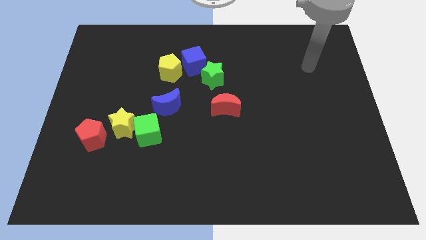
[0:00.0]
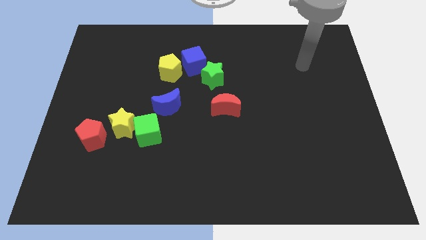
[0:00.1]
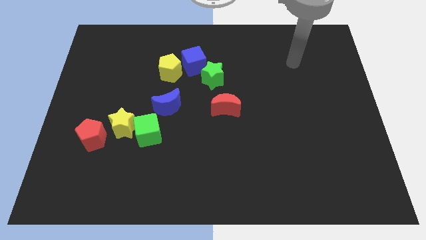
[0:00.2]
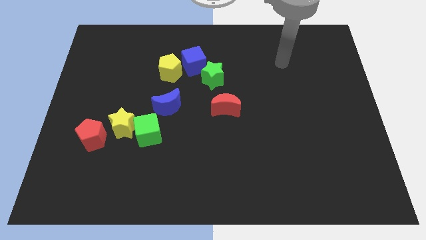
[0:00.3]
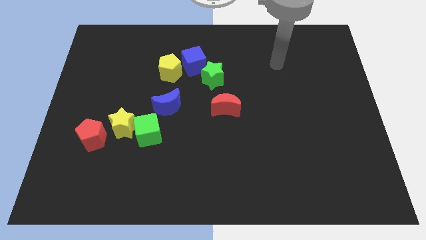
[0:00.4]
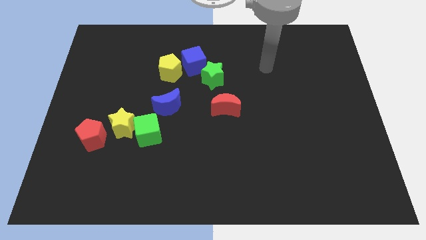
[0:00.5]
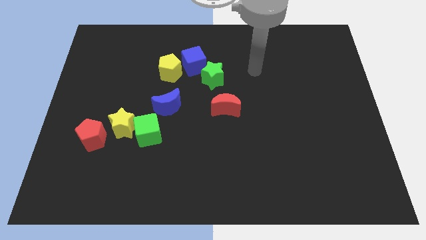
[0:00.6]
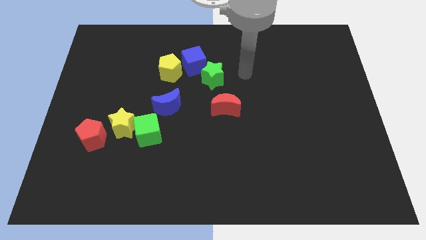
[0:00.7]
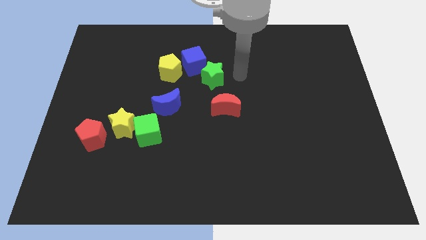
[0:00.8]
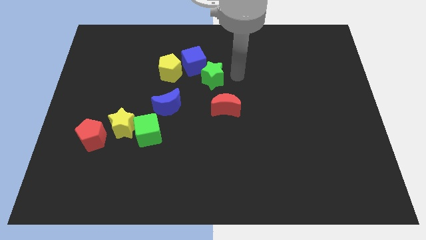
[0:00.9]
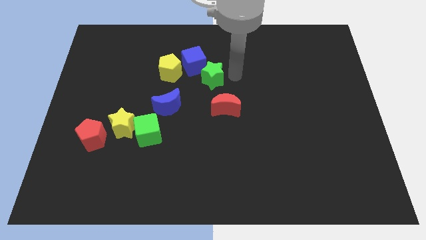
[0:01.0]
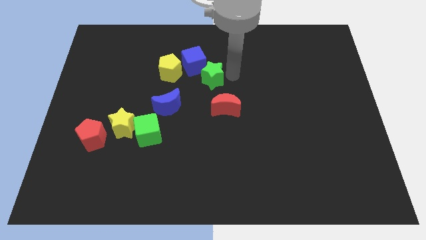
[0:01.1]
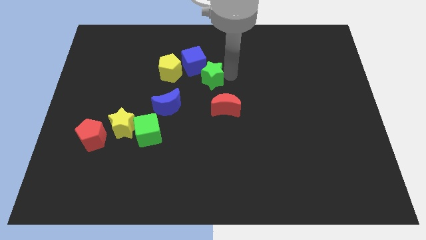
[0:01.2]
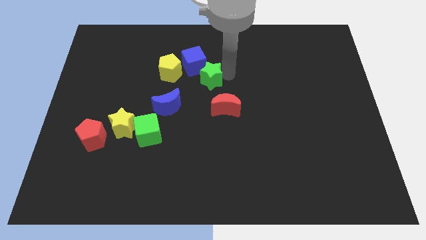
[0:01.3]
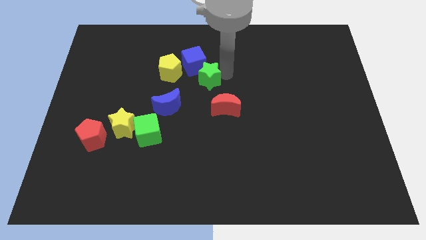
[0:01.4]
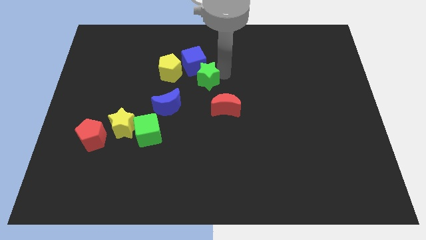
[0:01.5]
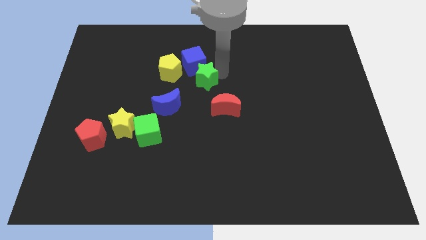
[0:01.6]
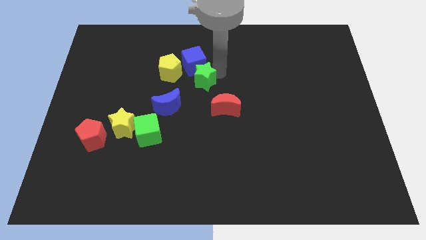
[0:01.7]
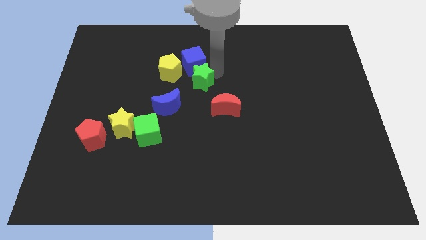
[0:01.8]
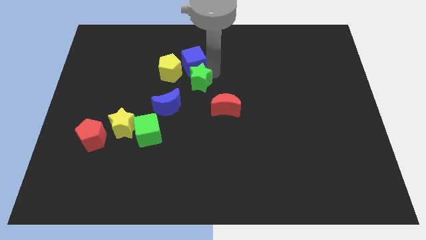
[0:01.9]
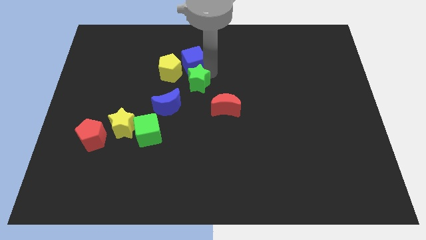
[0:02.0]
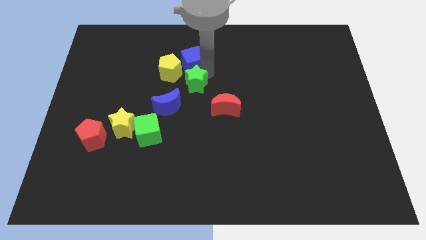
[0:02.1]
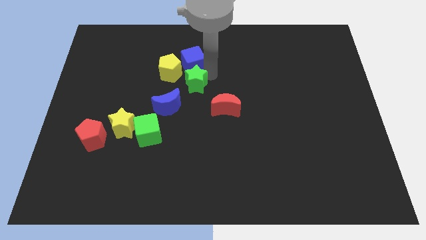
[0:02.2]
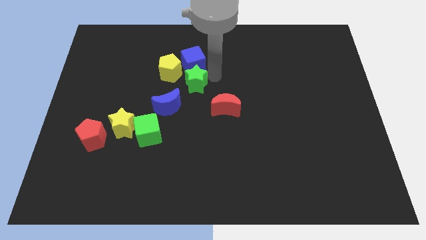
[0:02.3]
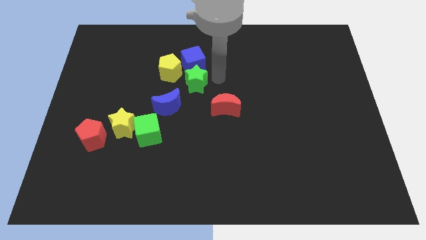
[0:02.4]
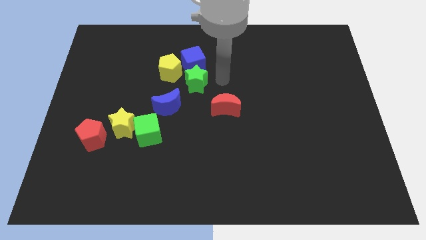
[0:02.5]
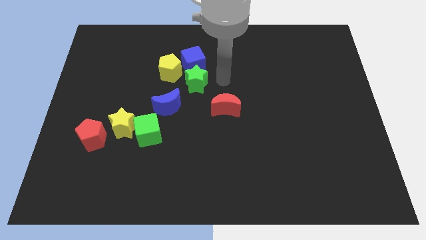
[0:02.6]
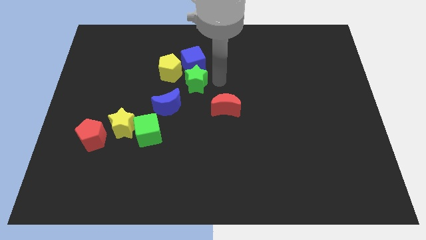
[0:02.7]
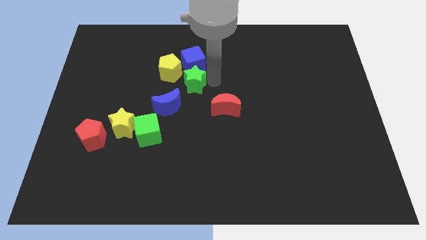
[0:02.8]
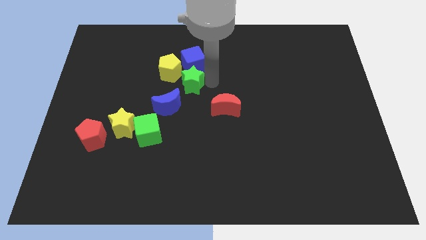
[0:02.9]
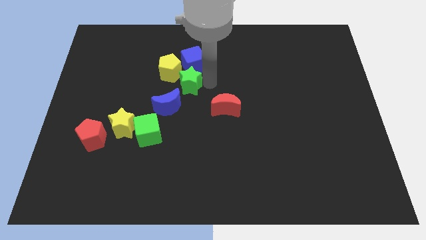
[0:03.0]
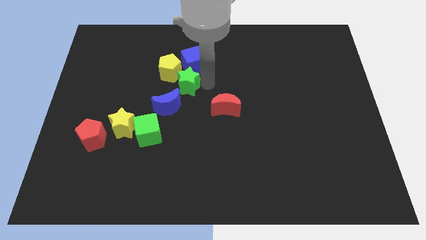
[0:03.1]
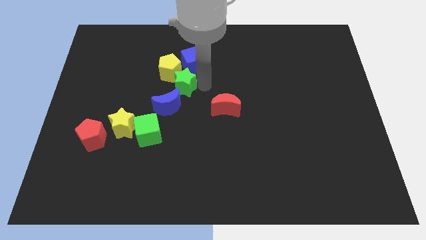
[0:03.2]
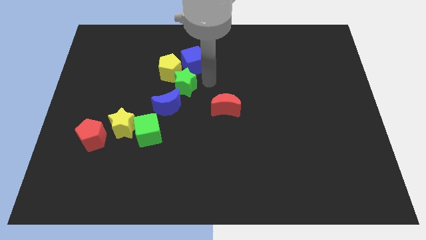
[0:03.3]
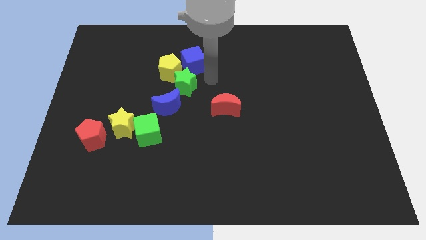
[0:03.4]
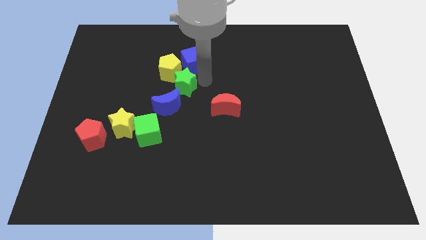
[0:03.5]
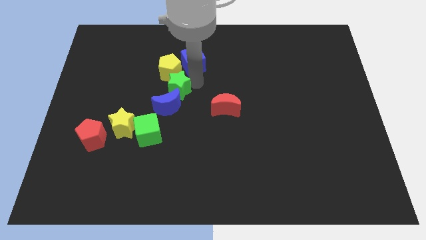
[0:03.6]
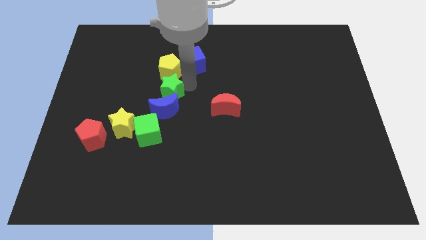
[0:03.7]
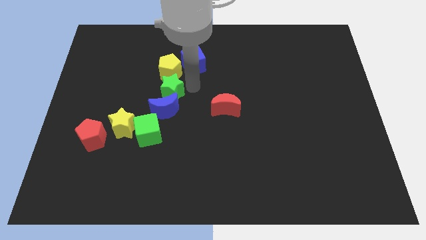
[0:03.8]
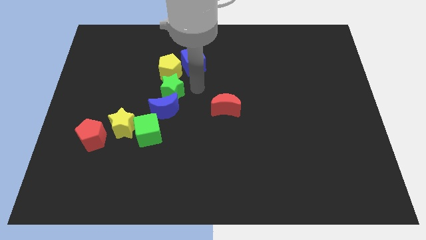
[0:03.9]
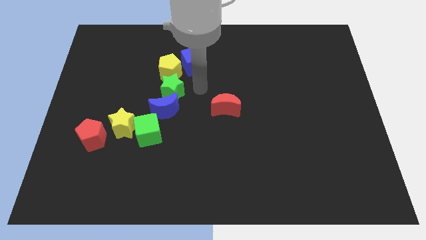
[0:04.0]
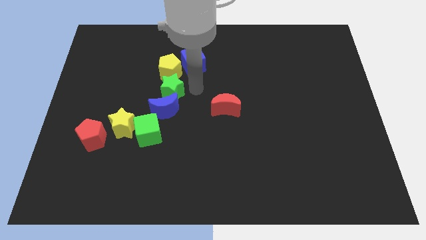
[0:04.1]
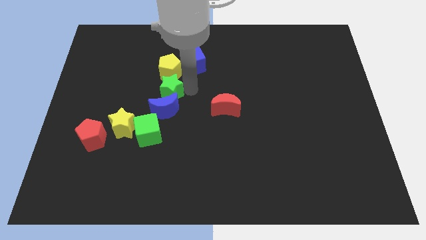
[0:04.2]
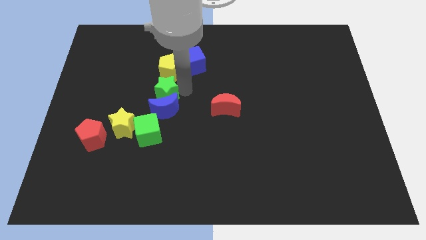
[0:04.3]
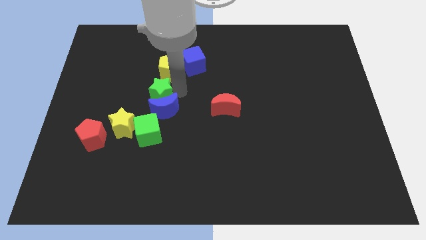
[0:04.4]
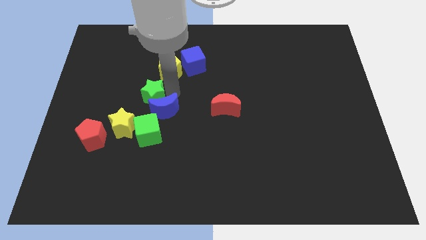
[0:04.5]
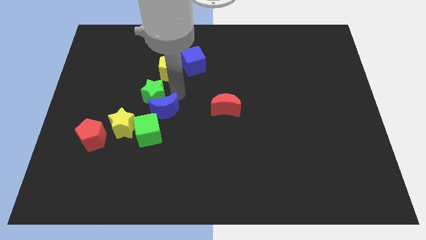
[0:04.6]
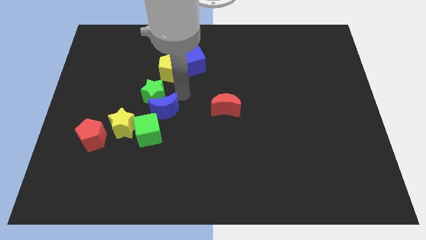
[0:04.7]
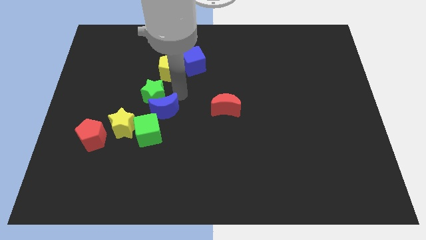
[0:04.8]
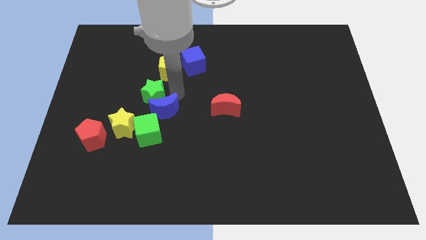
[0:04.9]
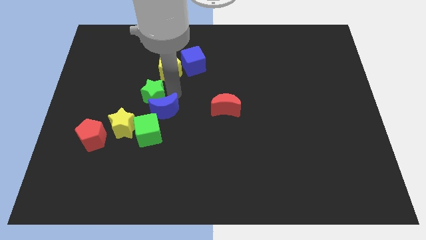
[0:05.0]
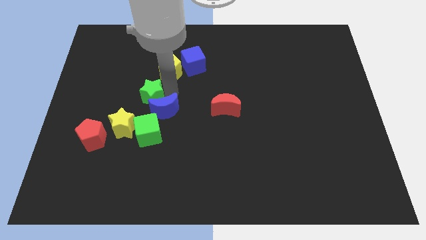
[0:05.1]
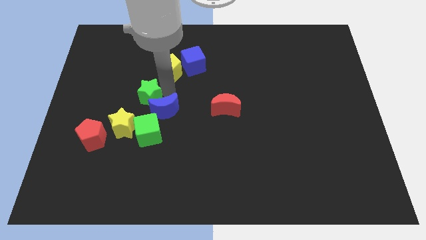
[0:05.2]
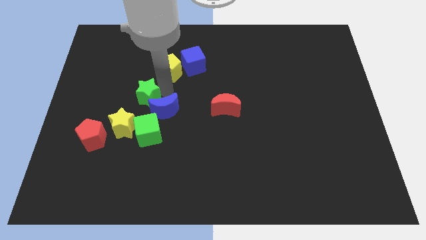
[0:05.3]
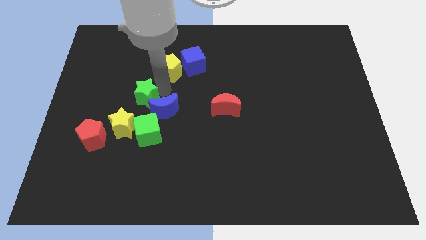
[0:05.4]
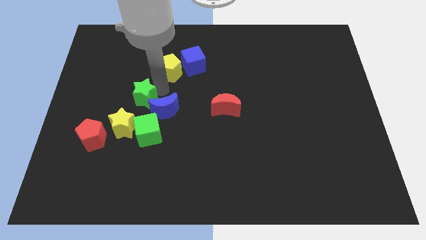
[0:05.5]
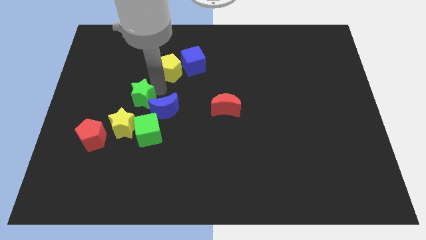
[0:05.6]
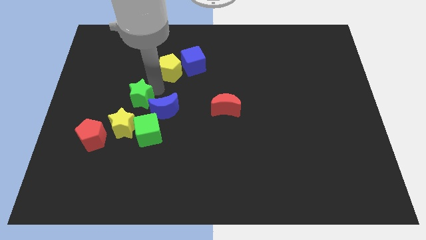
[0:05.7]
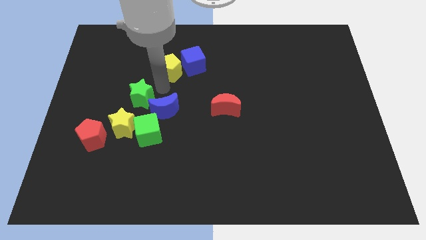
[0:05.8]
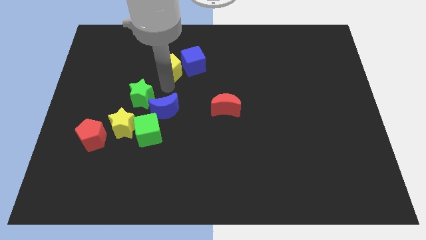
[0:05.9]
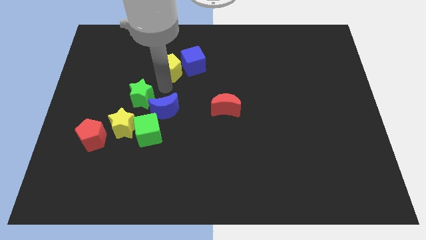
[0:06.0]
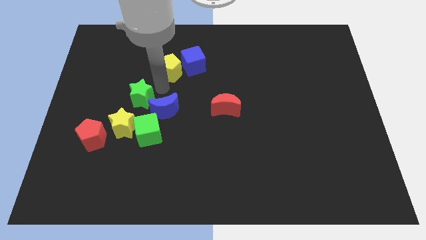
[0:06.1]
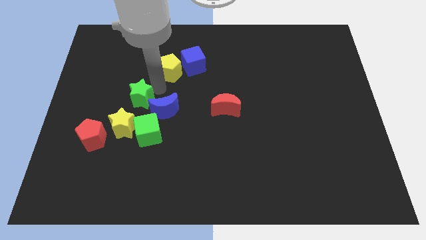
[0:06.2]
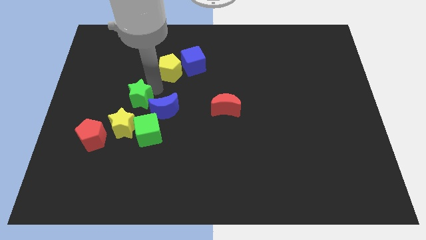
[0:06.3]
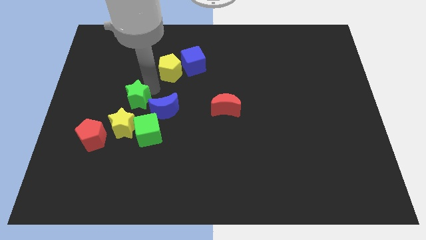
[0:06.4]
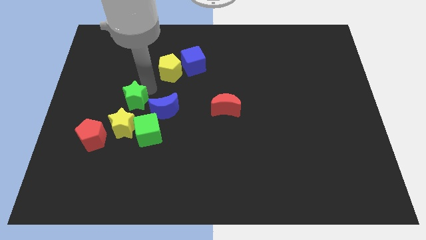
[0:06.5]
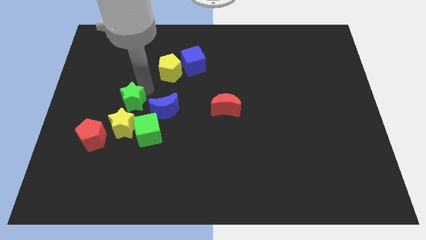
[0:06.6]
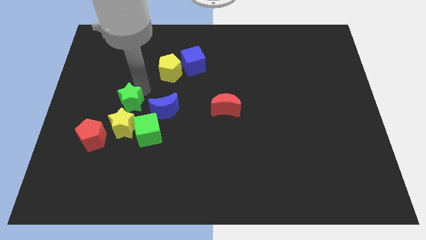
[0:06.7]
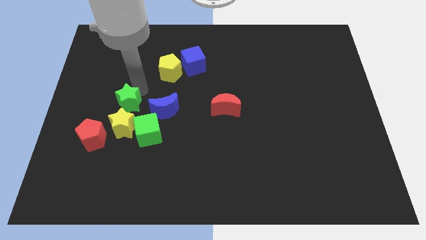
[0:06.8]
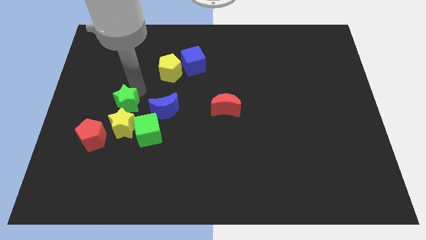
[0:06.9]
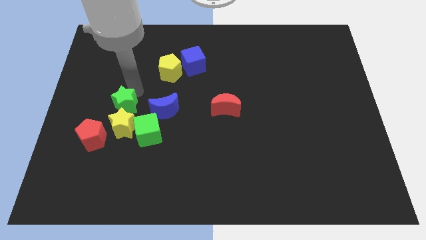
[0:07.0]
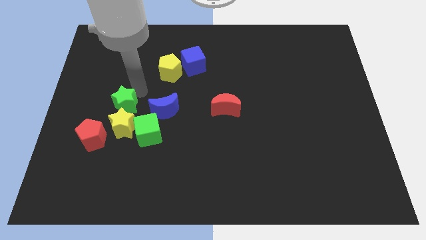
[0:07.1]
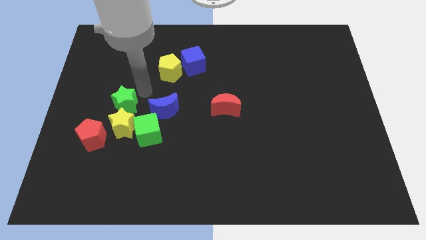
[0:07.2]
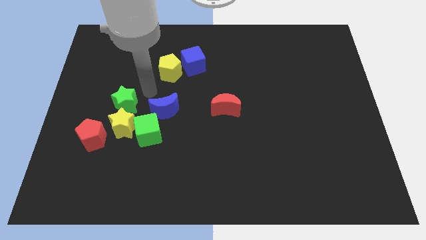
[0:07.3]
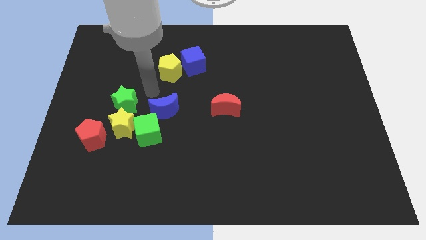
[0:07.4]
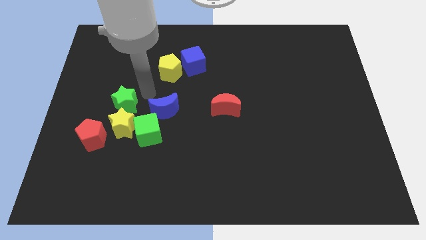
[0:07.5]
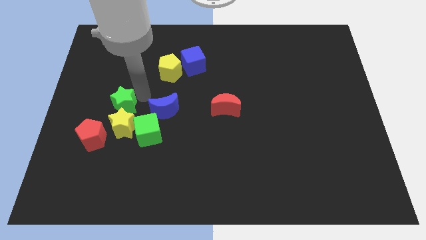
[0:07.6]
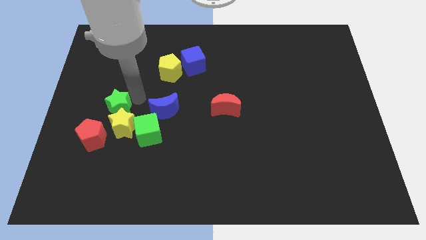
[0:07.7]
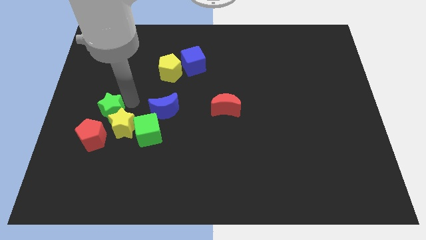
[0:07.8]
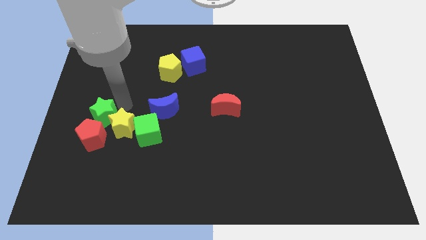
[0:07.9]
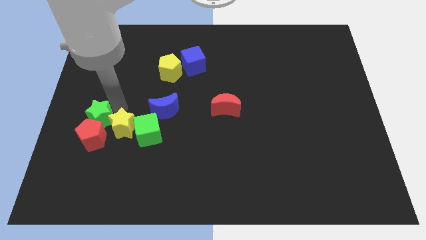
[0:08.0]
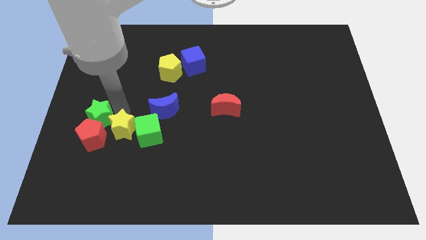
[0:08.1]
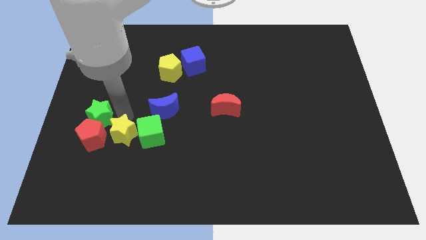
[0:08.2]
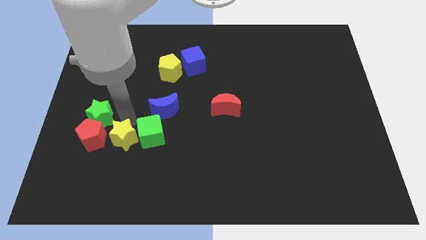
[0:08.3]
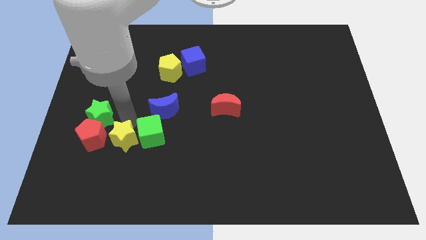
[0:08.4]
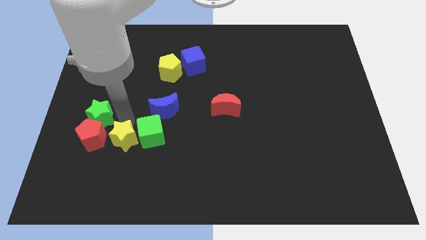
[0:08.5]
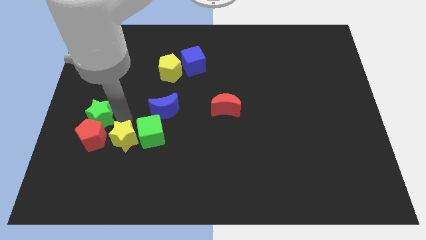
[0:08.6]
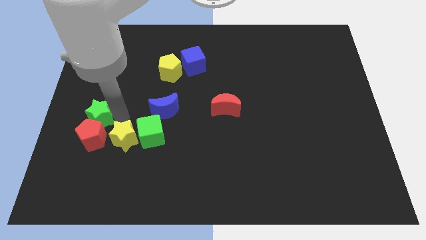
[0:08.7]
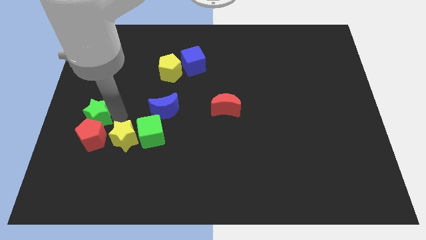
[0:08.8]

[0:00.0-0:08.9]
slide the green star to the left side of the board
